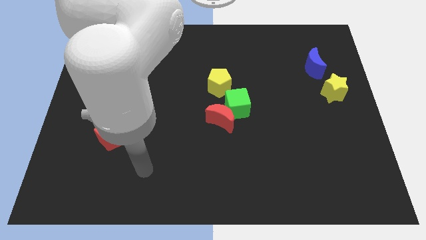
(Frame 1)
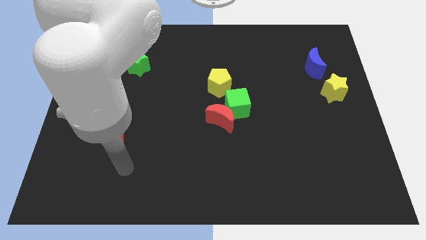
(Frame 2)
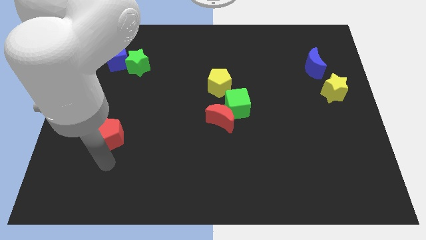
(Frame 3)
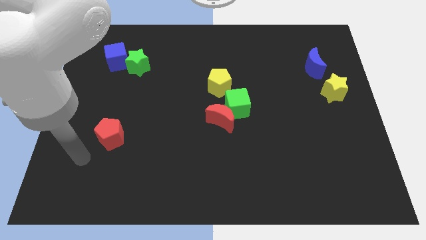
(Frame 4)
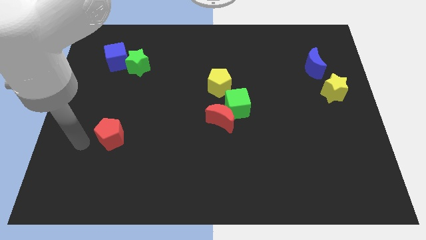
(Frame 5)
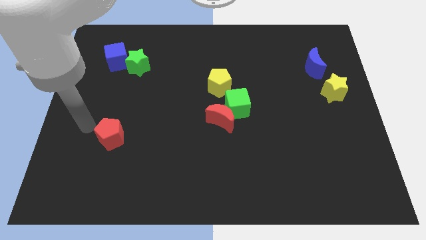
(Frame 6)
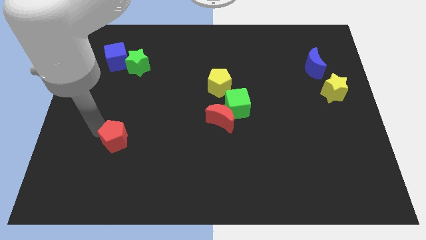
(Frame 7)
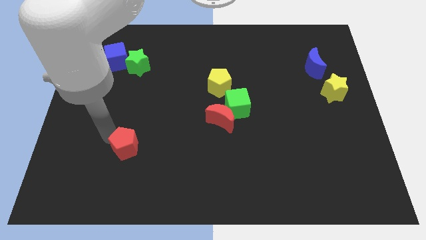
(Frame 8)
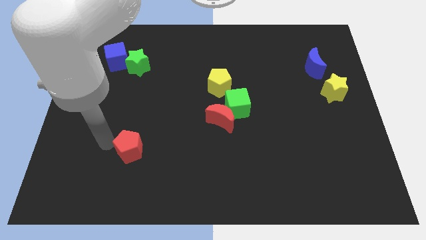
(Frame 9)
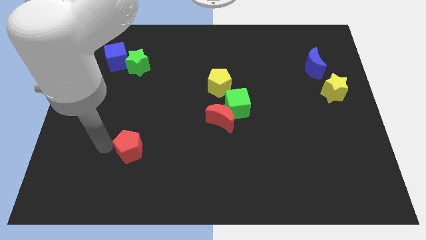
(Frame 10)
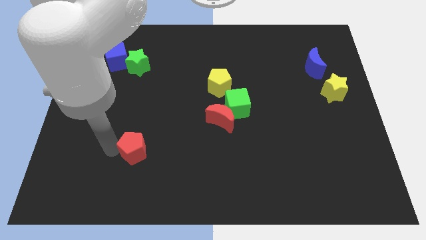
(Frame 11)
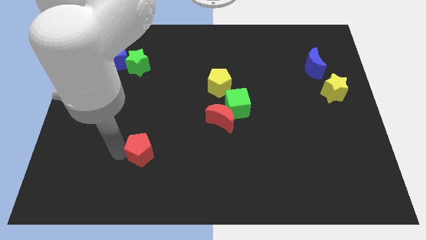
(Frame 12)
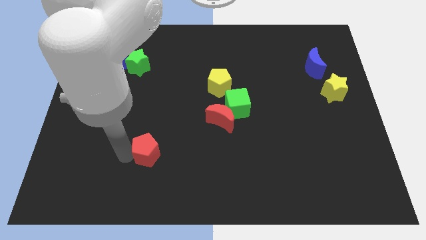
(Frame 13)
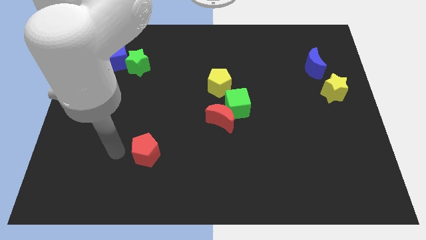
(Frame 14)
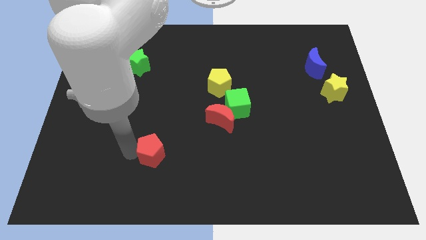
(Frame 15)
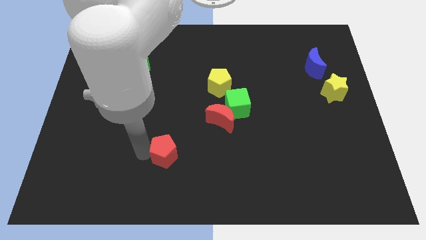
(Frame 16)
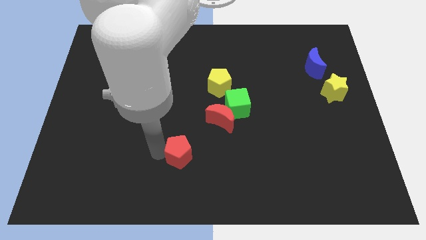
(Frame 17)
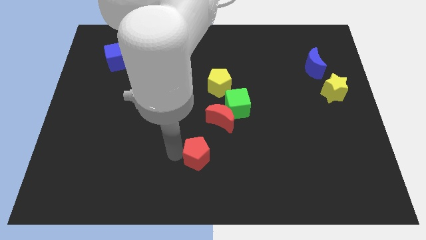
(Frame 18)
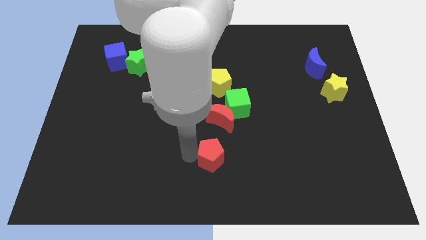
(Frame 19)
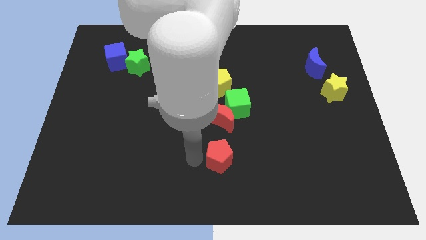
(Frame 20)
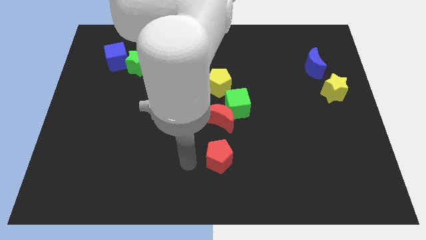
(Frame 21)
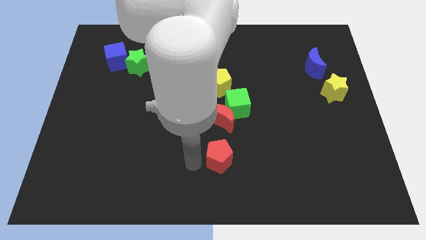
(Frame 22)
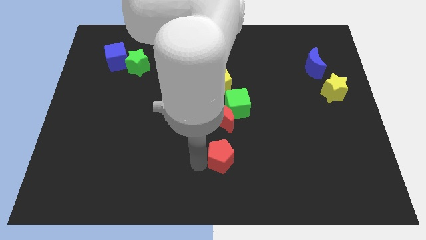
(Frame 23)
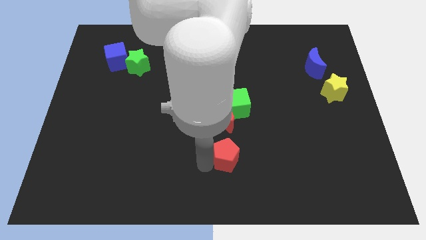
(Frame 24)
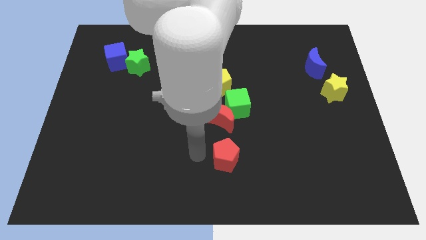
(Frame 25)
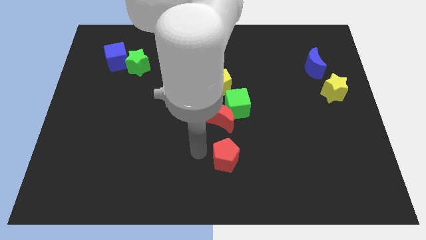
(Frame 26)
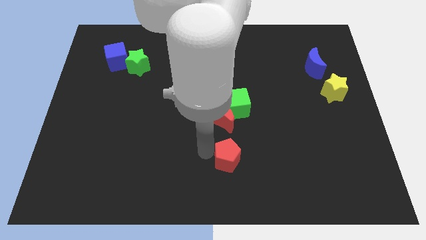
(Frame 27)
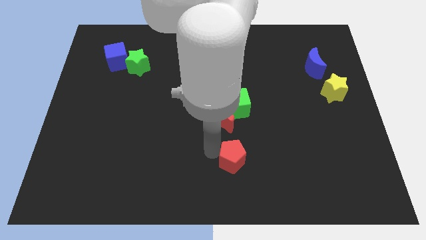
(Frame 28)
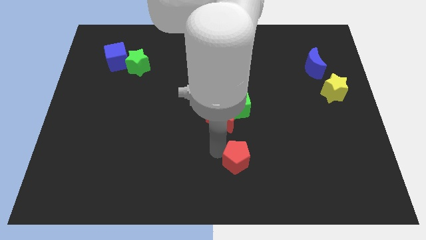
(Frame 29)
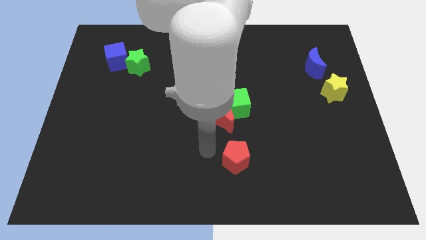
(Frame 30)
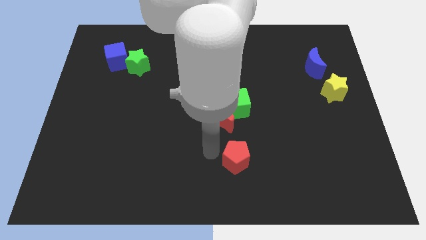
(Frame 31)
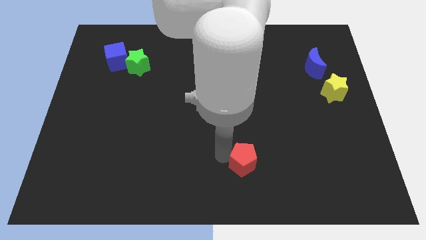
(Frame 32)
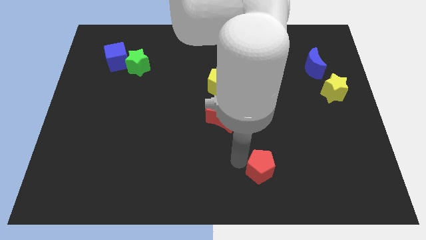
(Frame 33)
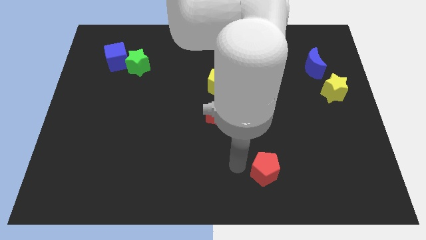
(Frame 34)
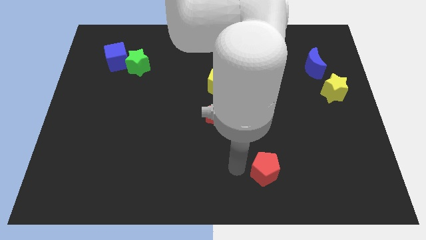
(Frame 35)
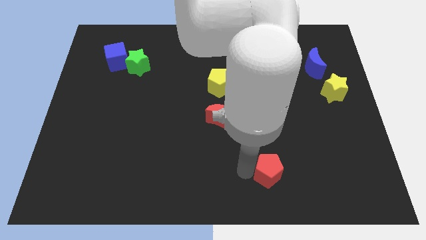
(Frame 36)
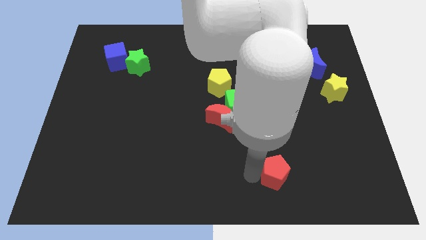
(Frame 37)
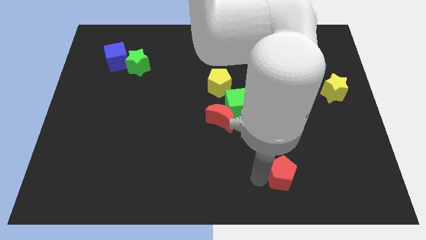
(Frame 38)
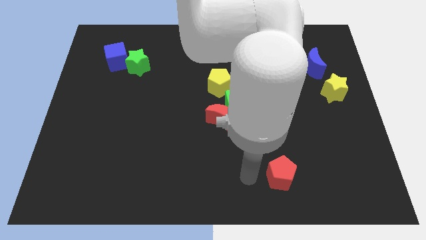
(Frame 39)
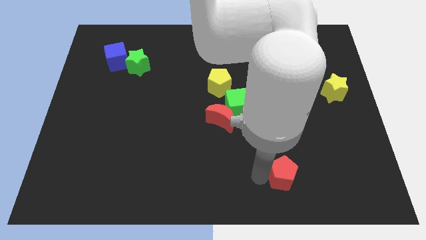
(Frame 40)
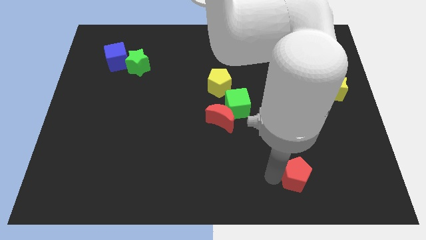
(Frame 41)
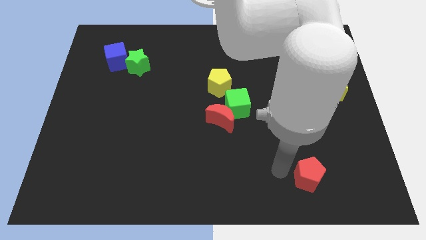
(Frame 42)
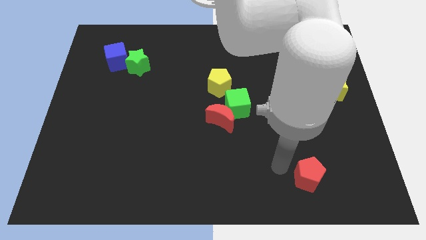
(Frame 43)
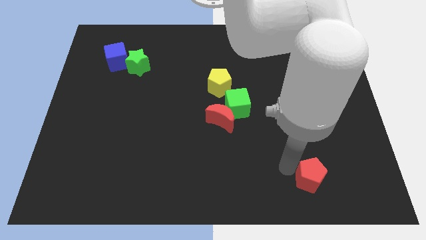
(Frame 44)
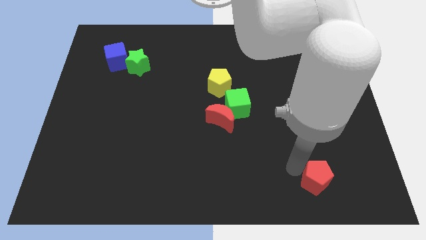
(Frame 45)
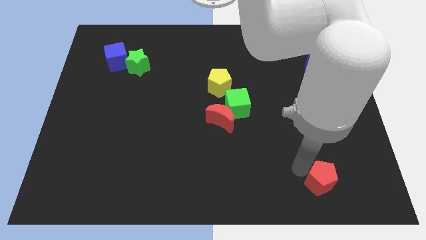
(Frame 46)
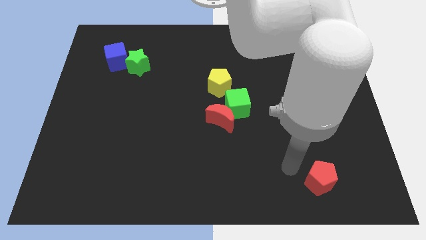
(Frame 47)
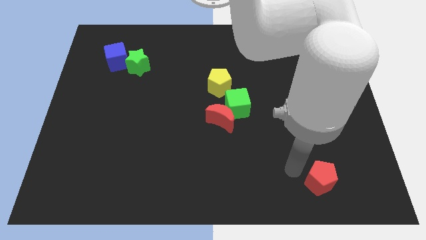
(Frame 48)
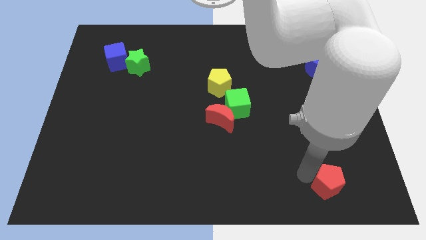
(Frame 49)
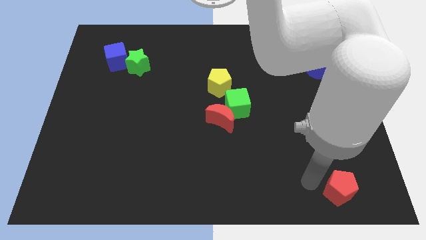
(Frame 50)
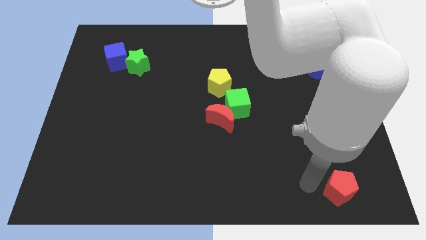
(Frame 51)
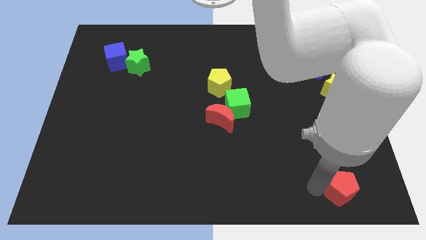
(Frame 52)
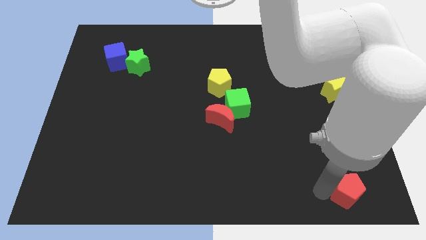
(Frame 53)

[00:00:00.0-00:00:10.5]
push the red pentagon to the lower right corner

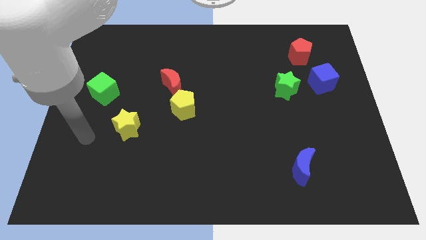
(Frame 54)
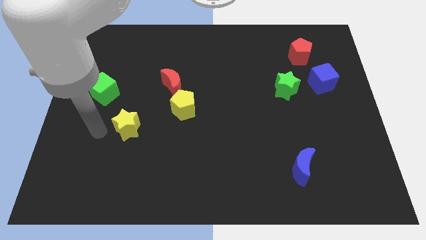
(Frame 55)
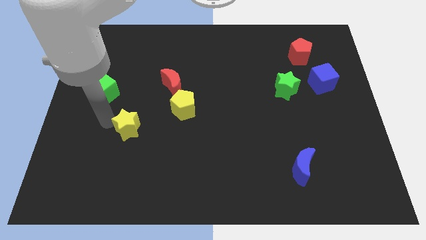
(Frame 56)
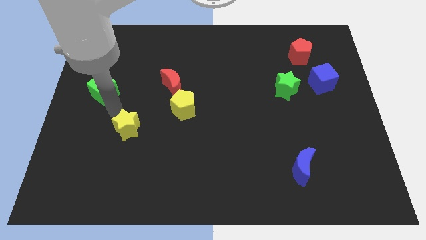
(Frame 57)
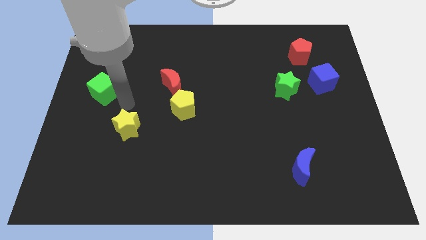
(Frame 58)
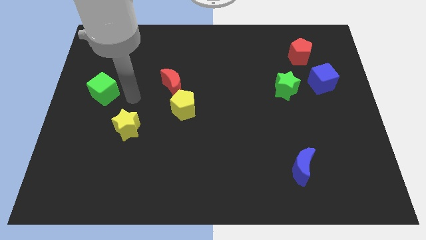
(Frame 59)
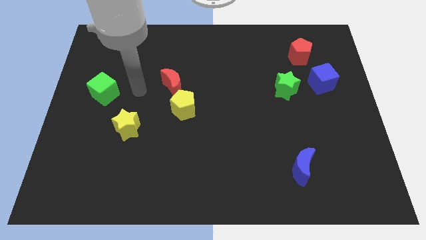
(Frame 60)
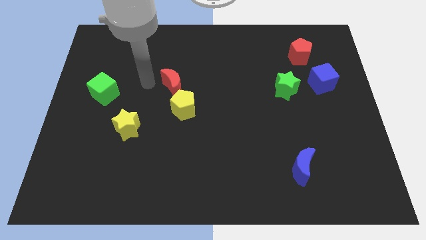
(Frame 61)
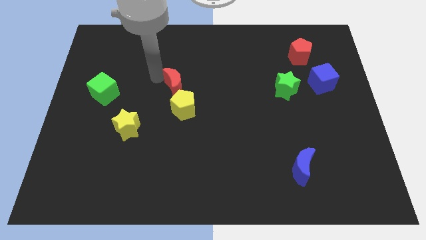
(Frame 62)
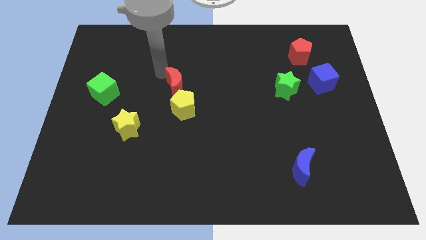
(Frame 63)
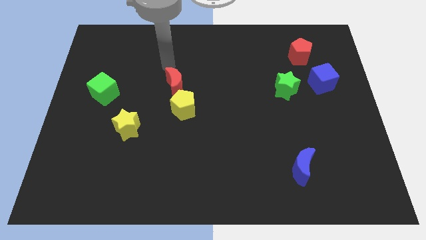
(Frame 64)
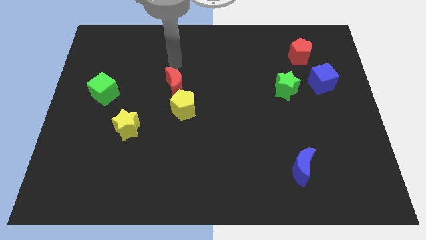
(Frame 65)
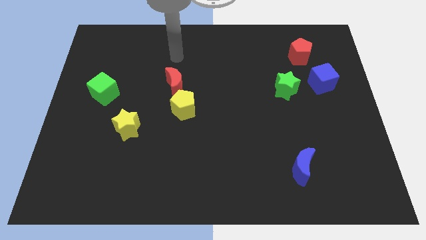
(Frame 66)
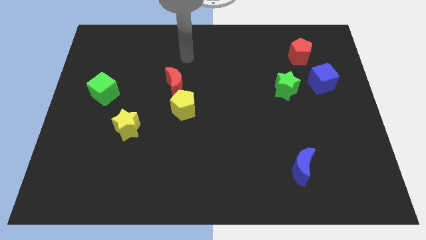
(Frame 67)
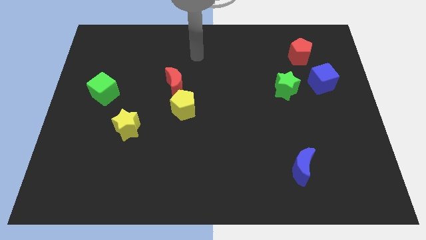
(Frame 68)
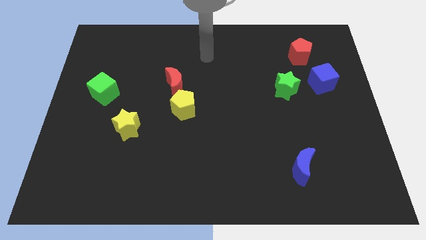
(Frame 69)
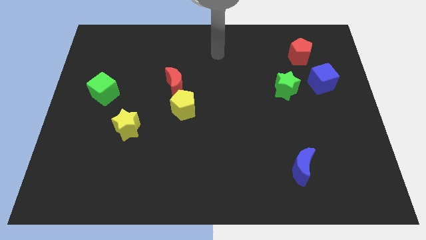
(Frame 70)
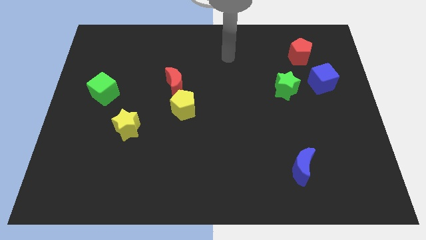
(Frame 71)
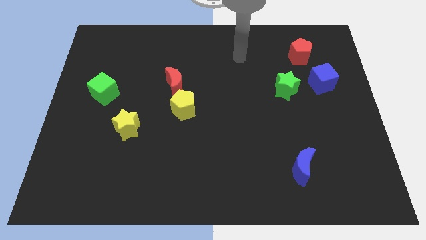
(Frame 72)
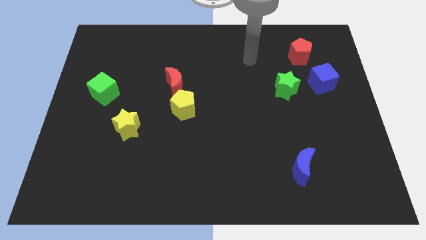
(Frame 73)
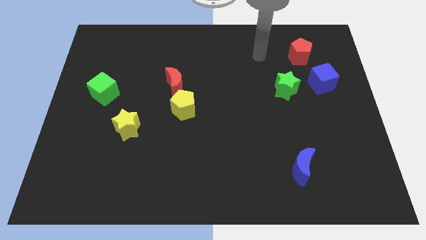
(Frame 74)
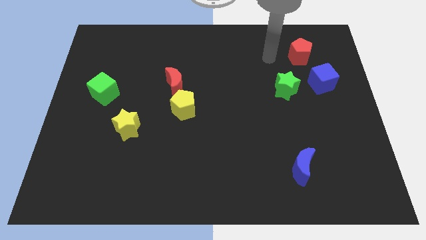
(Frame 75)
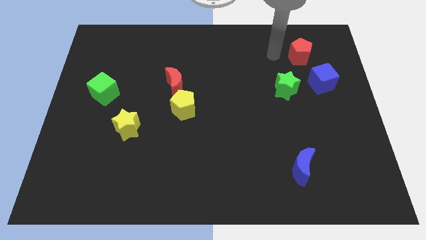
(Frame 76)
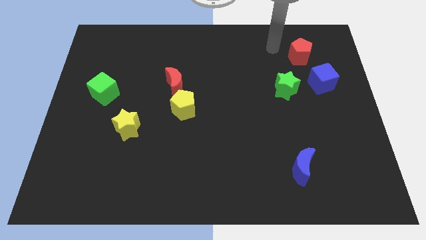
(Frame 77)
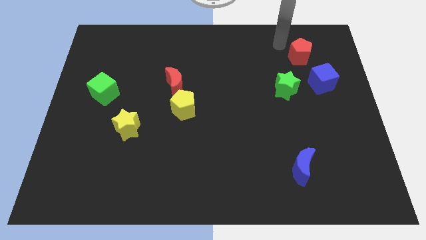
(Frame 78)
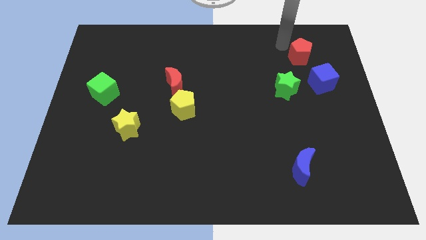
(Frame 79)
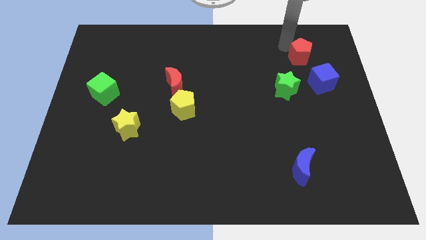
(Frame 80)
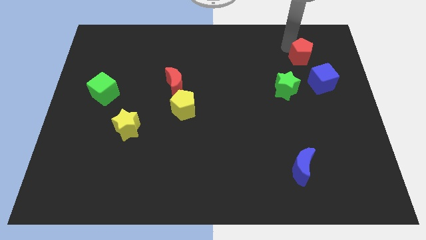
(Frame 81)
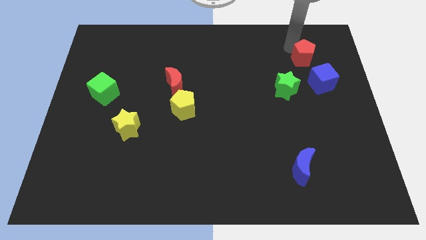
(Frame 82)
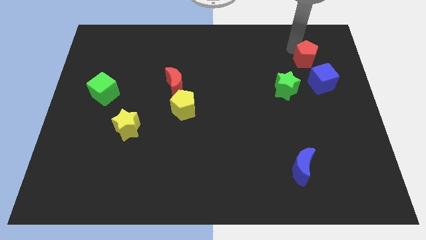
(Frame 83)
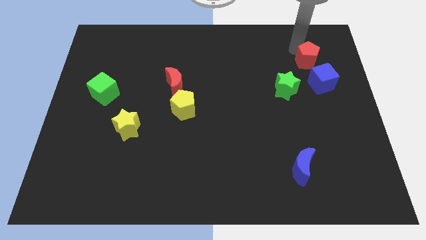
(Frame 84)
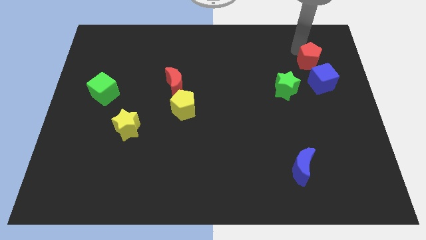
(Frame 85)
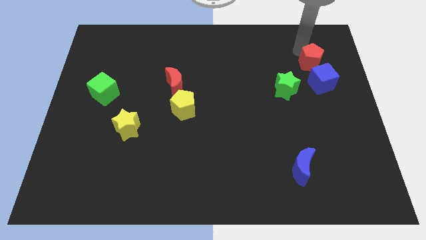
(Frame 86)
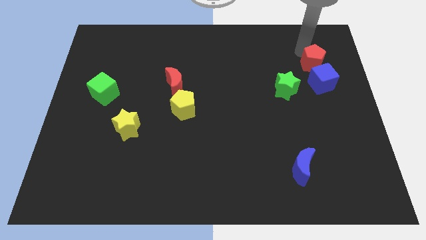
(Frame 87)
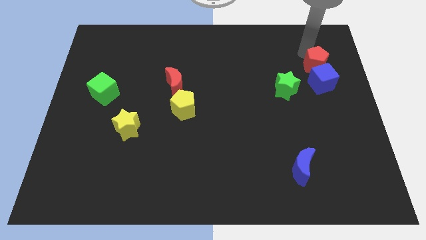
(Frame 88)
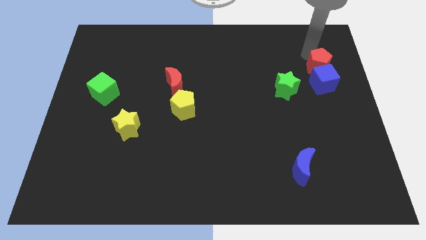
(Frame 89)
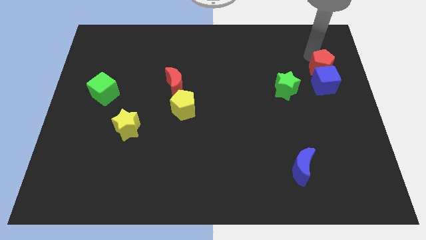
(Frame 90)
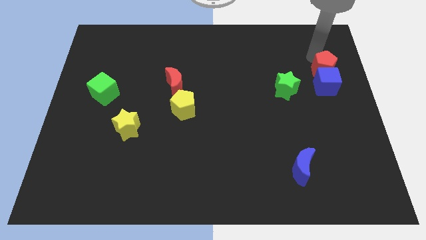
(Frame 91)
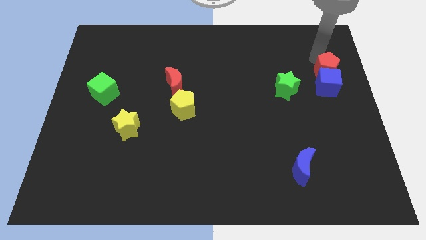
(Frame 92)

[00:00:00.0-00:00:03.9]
move the red pentagon to the center right
